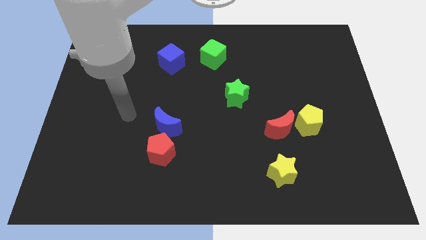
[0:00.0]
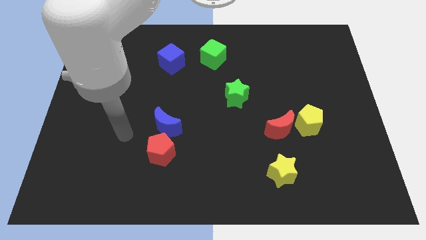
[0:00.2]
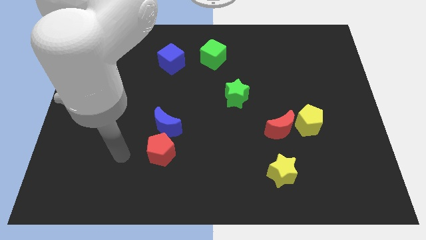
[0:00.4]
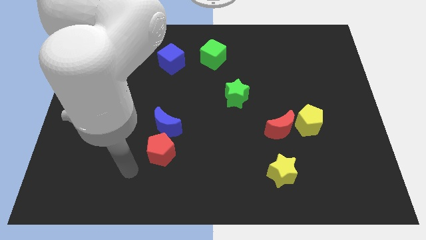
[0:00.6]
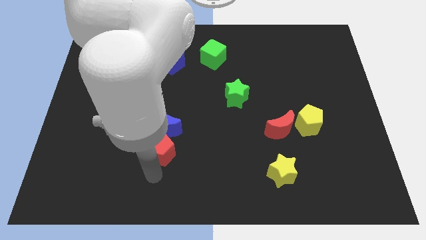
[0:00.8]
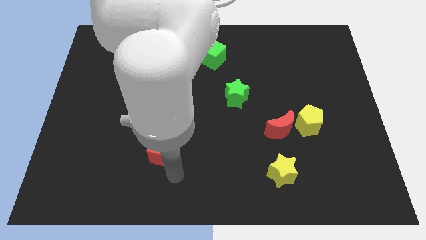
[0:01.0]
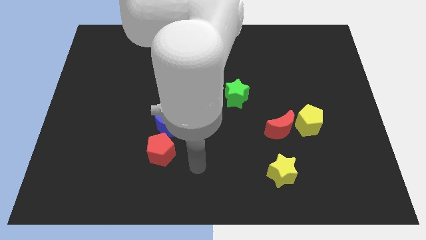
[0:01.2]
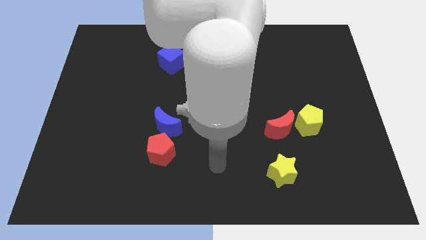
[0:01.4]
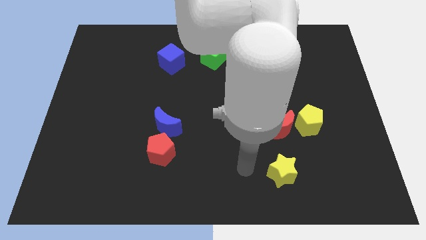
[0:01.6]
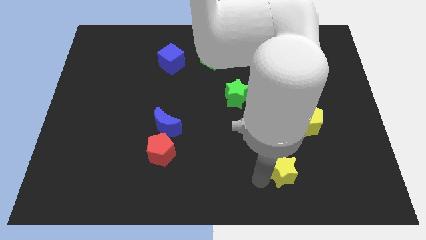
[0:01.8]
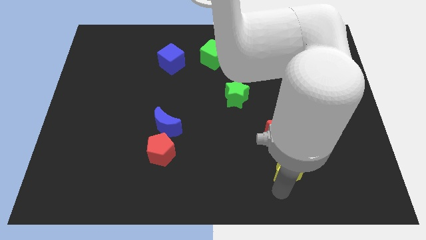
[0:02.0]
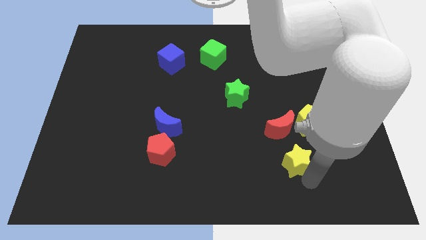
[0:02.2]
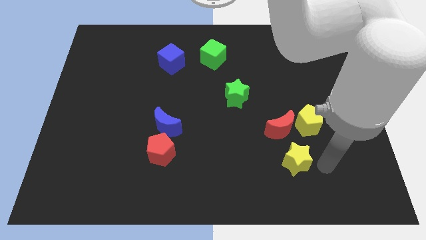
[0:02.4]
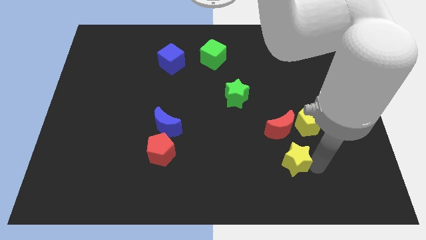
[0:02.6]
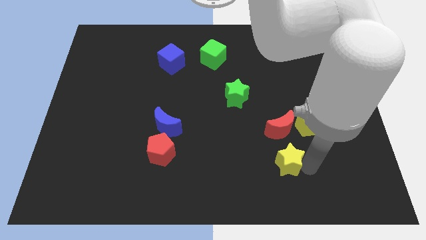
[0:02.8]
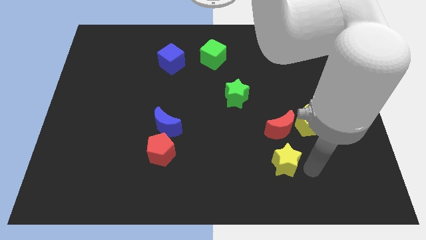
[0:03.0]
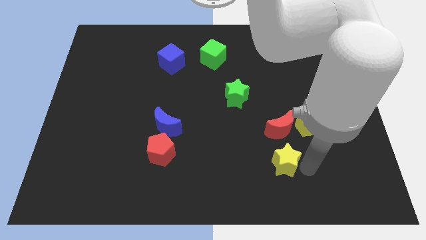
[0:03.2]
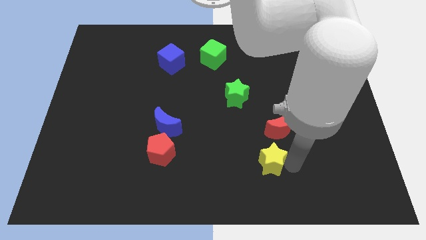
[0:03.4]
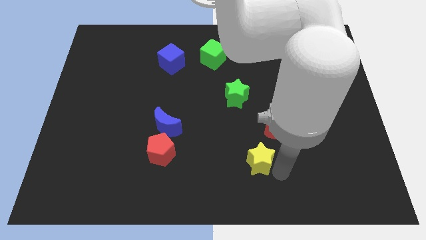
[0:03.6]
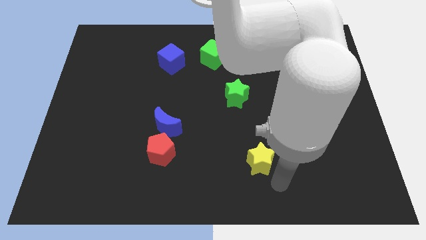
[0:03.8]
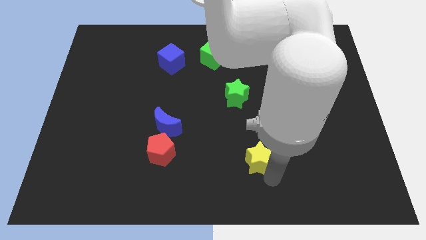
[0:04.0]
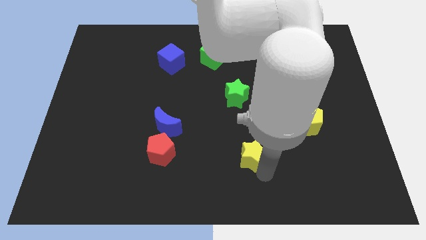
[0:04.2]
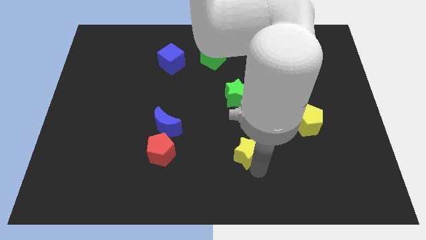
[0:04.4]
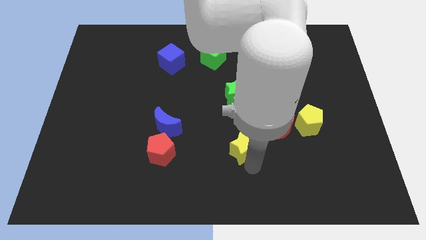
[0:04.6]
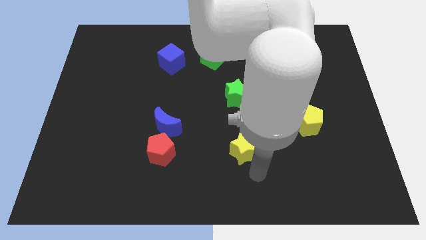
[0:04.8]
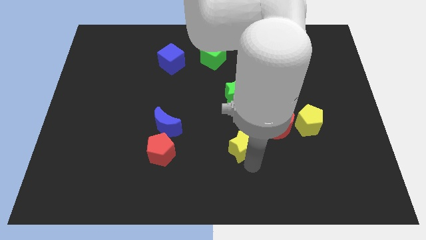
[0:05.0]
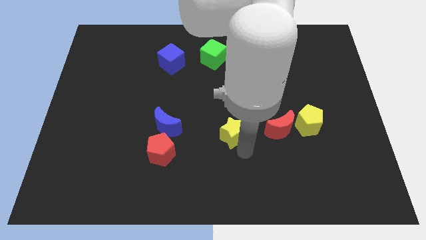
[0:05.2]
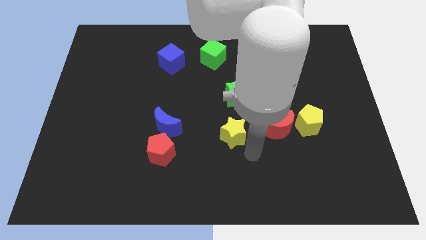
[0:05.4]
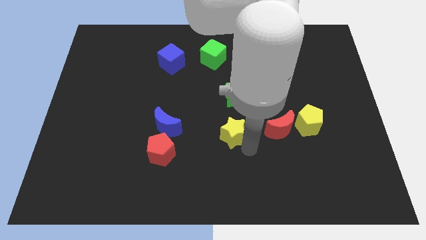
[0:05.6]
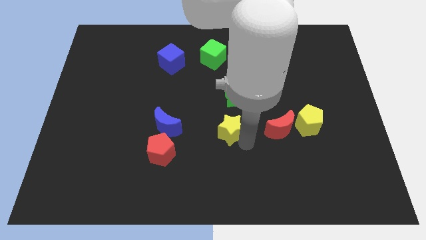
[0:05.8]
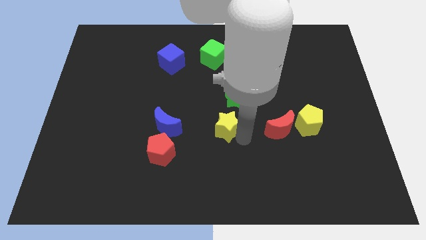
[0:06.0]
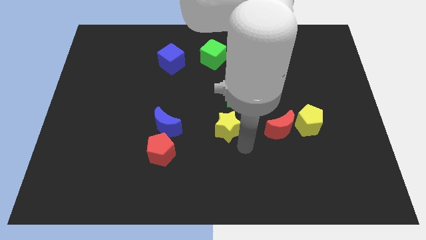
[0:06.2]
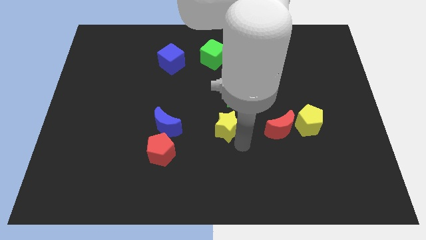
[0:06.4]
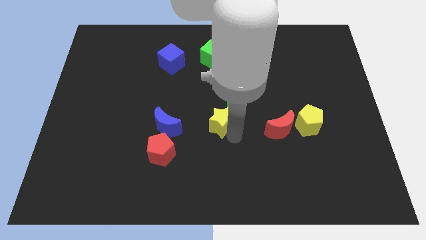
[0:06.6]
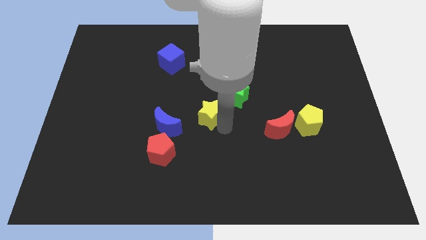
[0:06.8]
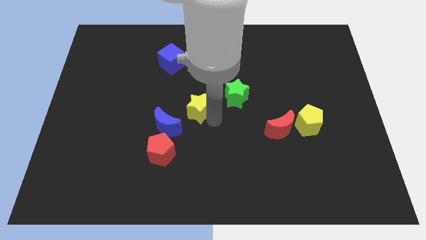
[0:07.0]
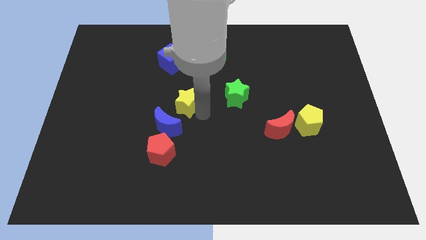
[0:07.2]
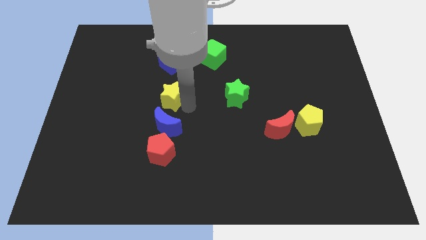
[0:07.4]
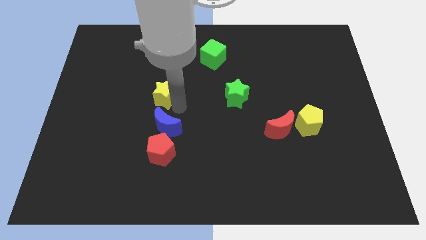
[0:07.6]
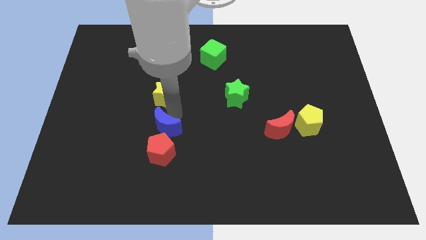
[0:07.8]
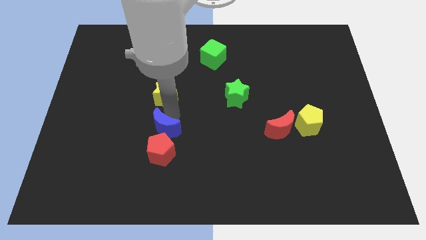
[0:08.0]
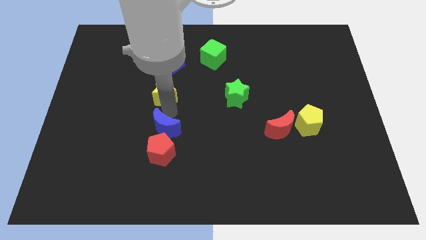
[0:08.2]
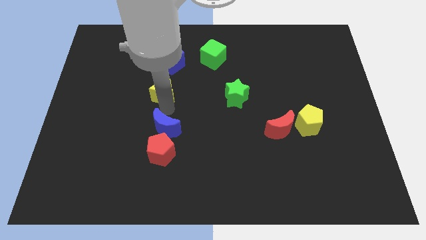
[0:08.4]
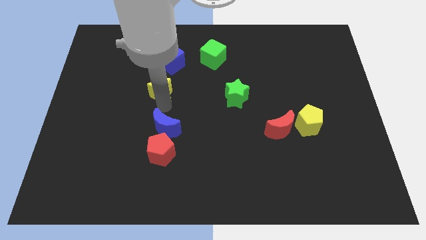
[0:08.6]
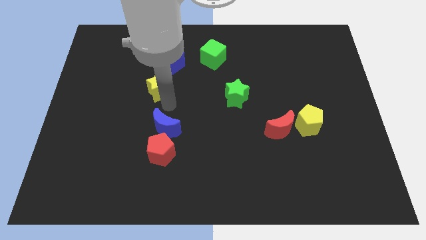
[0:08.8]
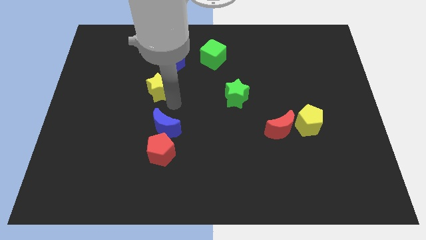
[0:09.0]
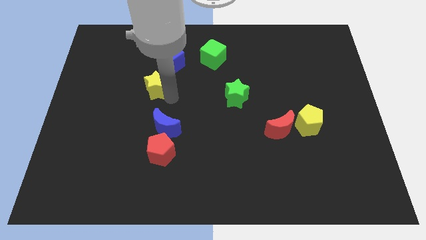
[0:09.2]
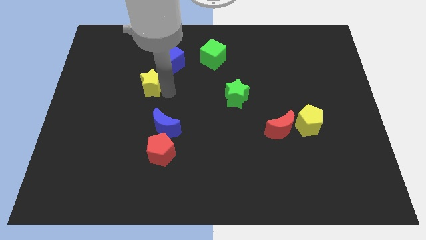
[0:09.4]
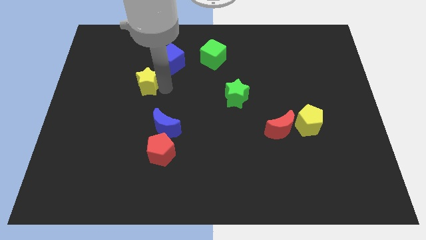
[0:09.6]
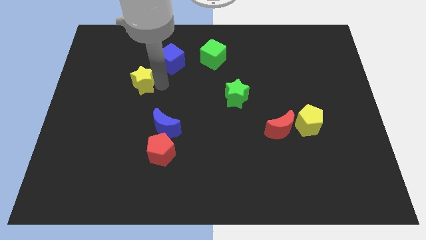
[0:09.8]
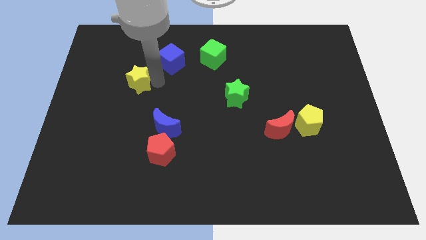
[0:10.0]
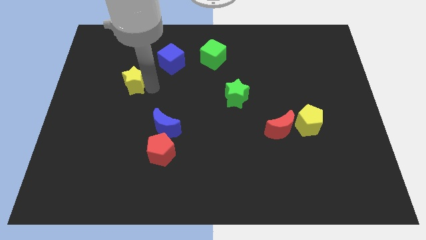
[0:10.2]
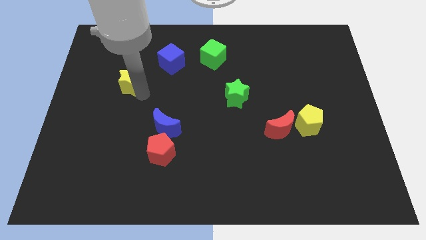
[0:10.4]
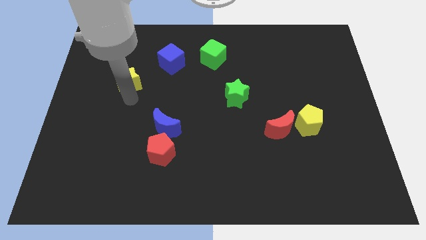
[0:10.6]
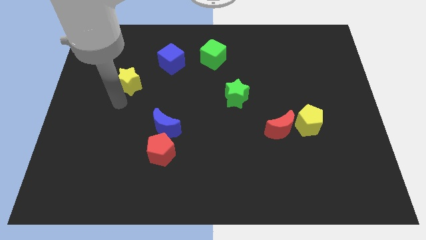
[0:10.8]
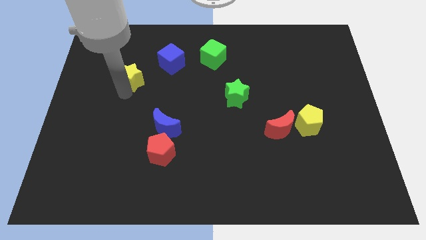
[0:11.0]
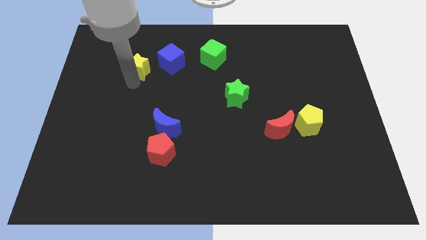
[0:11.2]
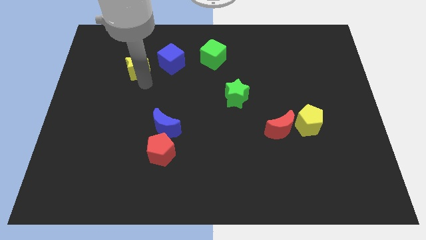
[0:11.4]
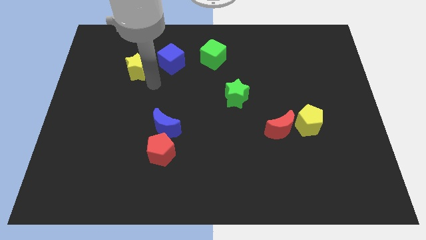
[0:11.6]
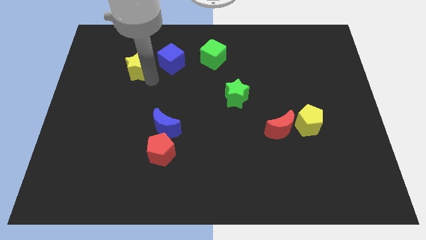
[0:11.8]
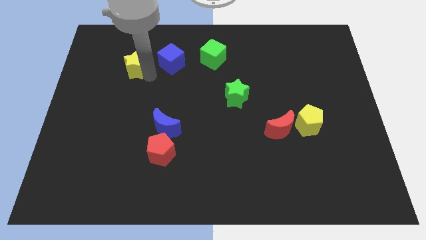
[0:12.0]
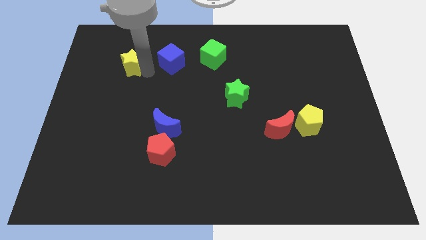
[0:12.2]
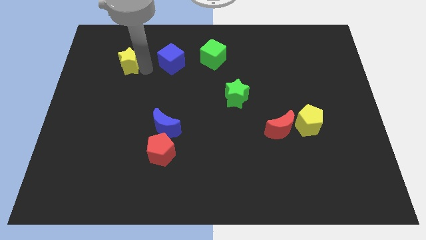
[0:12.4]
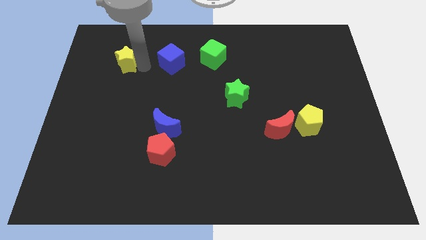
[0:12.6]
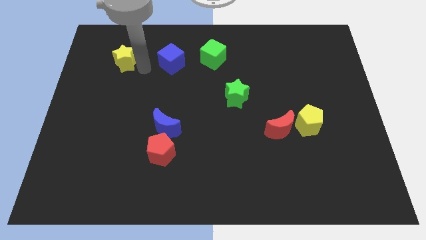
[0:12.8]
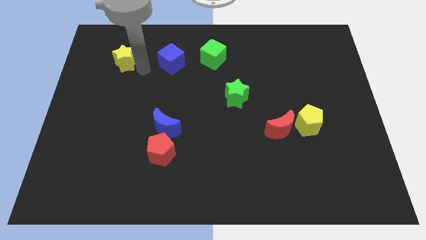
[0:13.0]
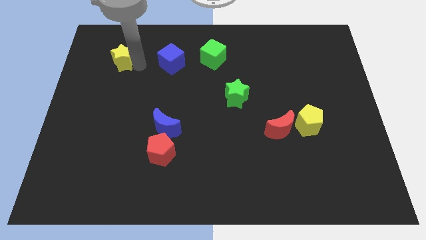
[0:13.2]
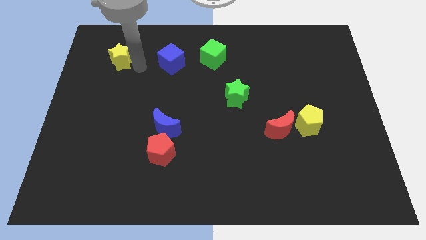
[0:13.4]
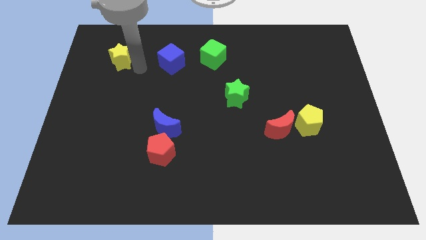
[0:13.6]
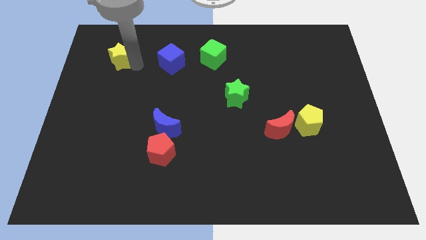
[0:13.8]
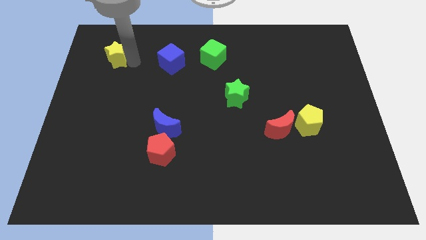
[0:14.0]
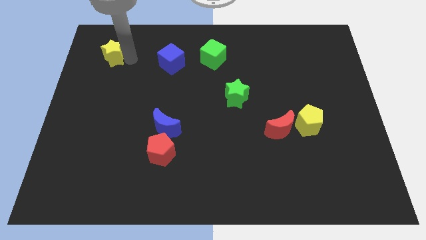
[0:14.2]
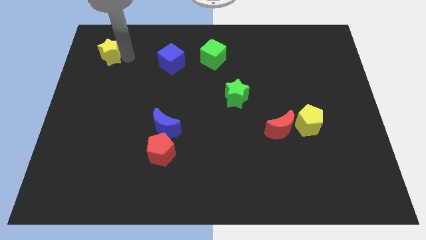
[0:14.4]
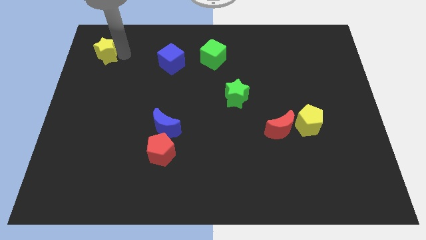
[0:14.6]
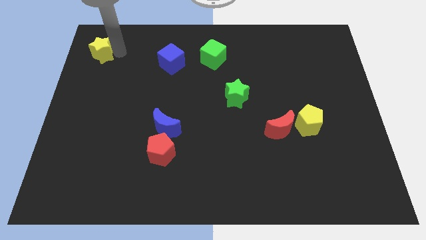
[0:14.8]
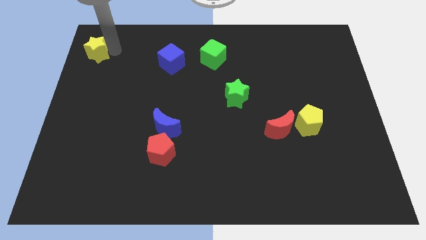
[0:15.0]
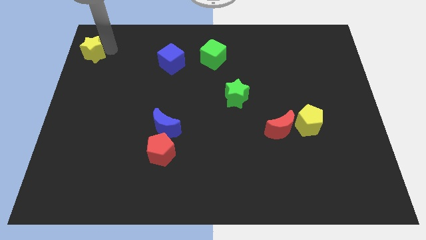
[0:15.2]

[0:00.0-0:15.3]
slide the yellow star to the top left of the board

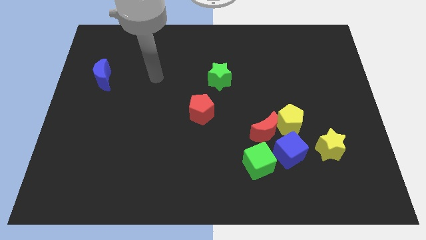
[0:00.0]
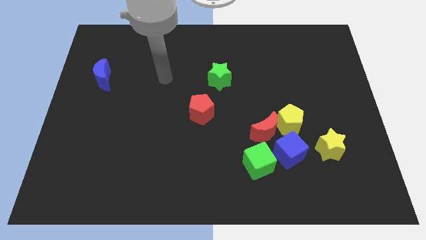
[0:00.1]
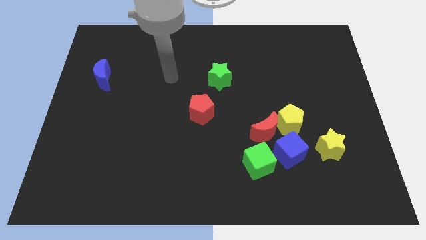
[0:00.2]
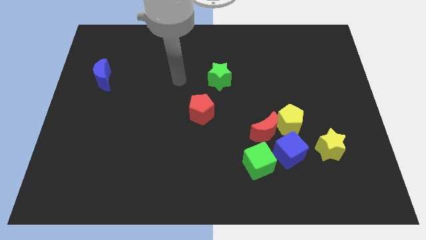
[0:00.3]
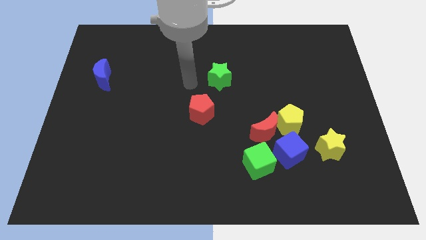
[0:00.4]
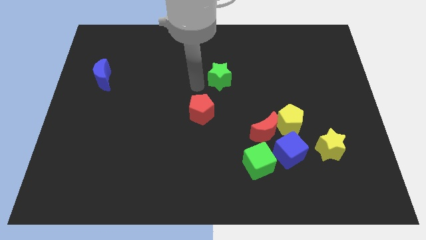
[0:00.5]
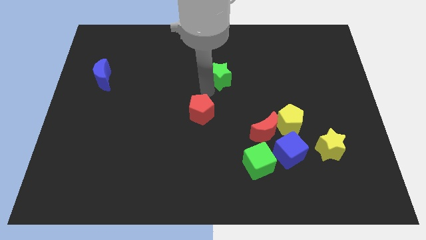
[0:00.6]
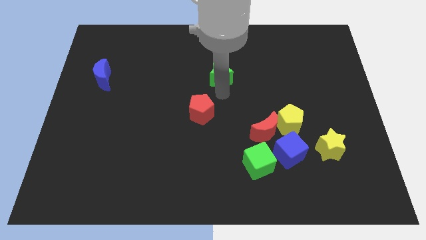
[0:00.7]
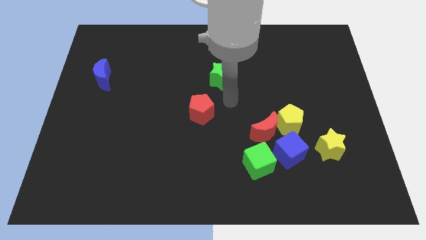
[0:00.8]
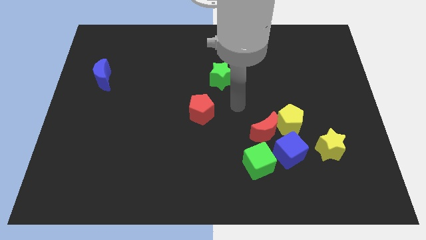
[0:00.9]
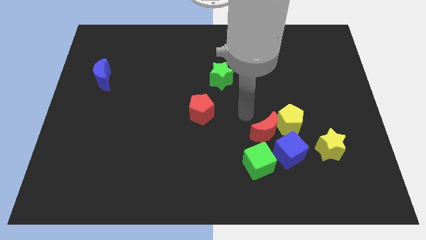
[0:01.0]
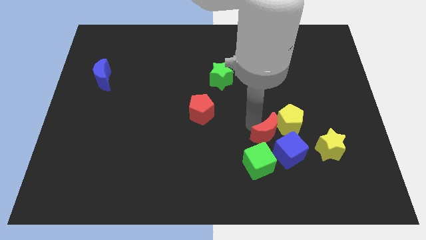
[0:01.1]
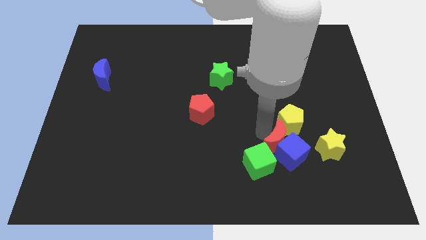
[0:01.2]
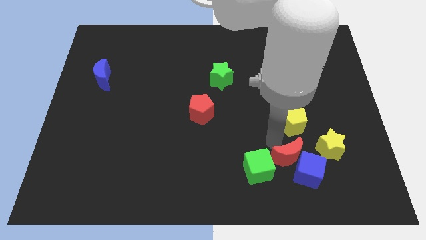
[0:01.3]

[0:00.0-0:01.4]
push the green cube to the bottom
